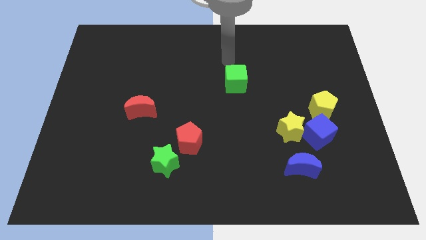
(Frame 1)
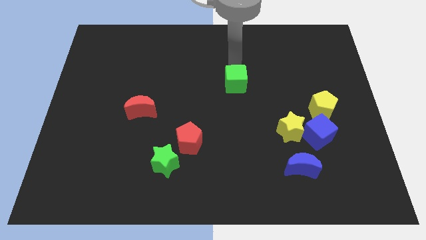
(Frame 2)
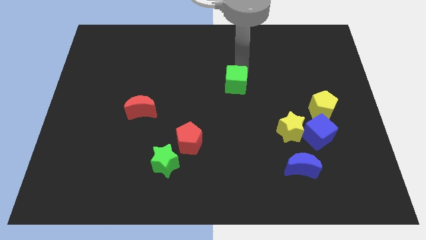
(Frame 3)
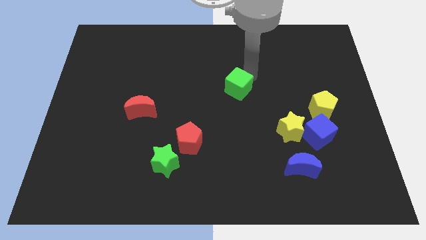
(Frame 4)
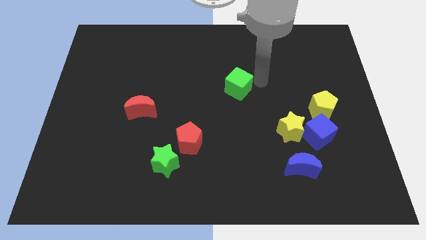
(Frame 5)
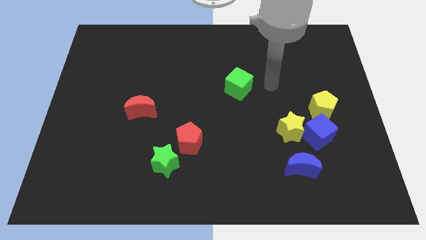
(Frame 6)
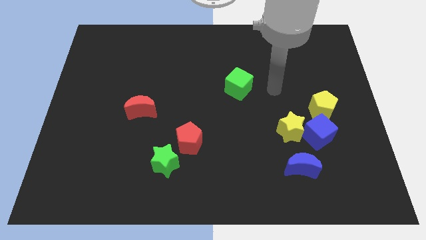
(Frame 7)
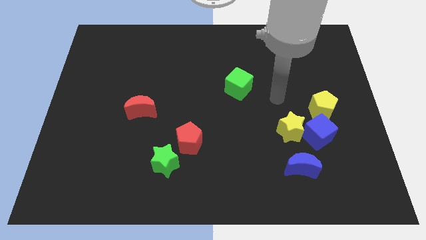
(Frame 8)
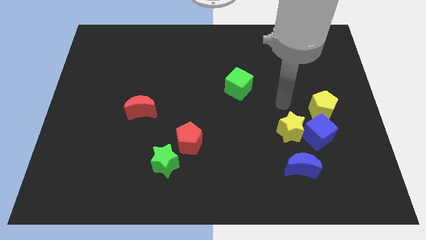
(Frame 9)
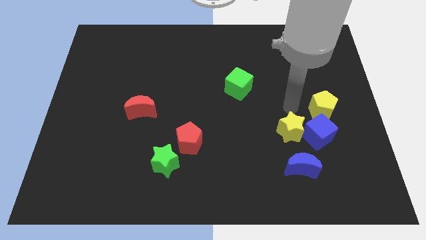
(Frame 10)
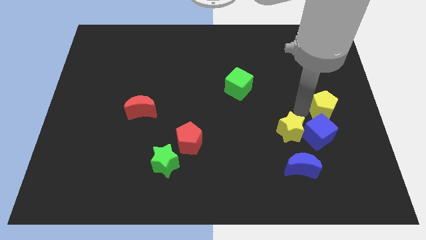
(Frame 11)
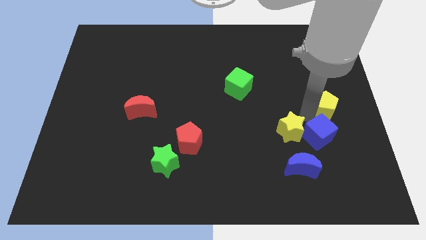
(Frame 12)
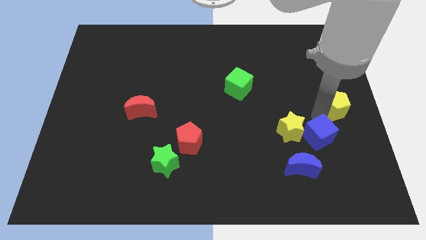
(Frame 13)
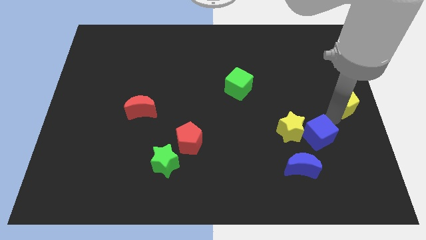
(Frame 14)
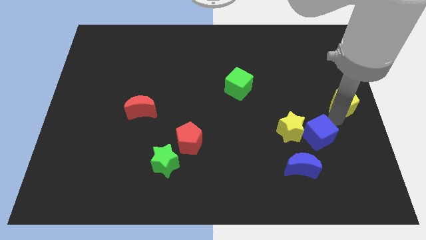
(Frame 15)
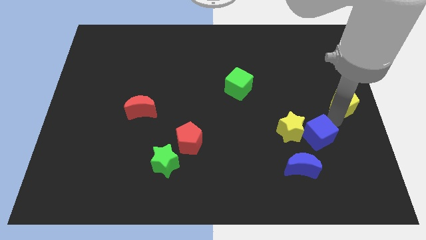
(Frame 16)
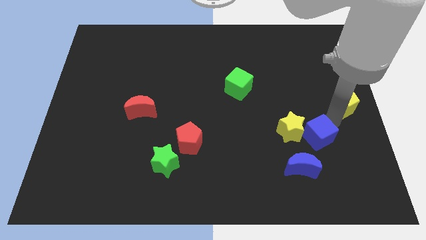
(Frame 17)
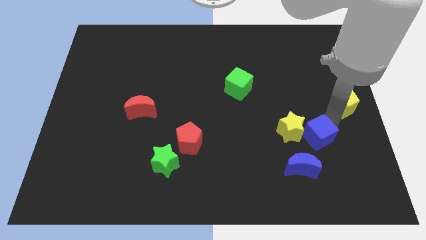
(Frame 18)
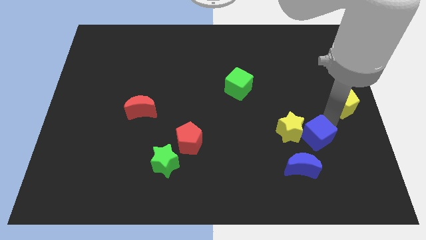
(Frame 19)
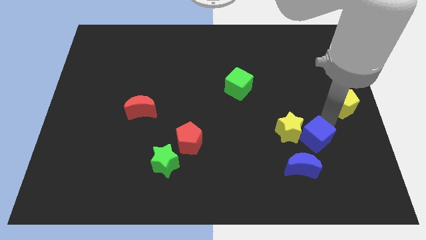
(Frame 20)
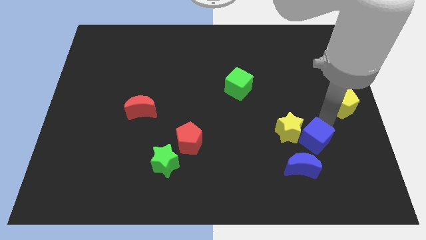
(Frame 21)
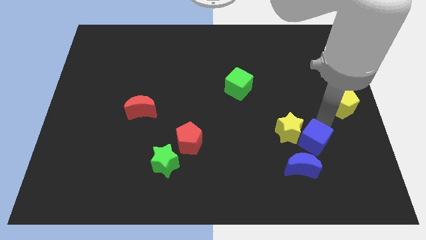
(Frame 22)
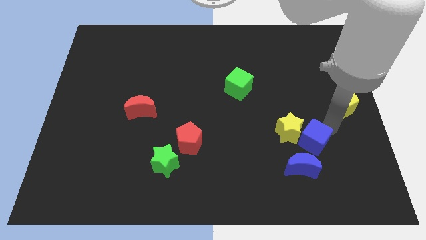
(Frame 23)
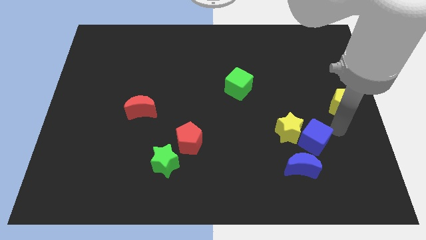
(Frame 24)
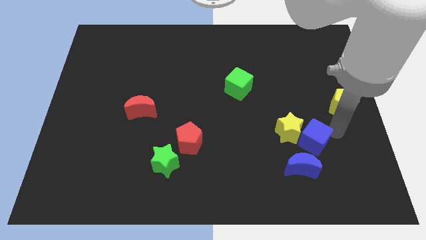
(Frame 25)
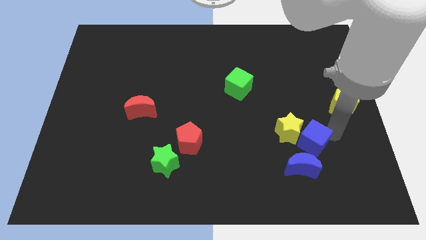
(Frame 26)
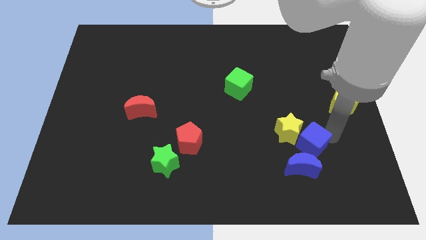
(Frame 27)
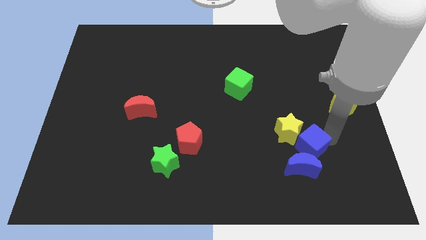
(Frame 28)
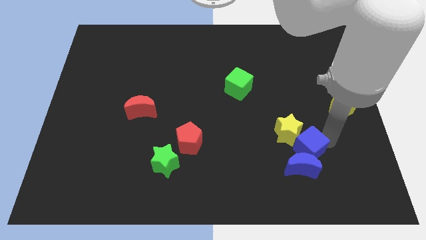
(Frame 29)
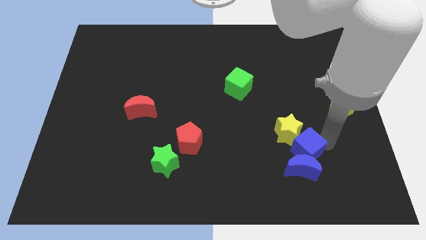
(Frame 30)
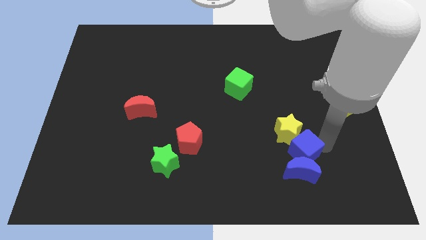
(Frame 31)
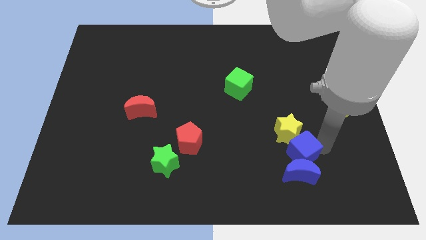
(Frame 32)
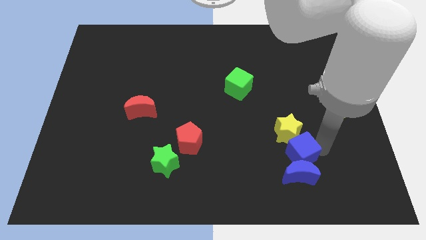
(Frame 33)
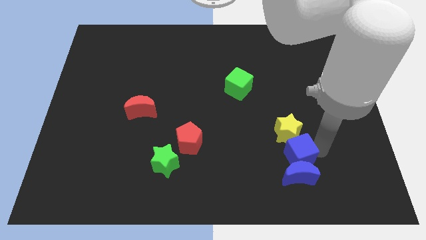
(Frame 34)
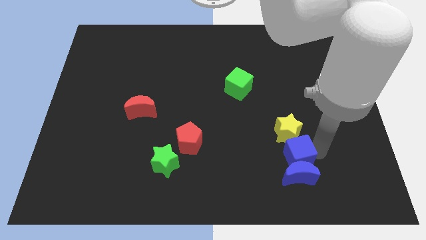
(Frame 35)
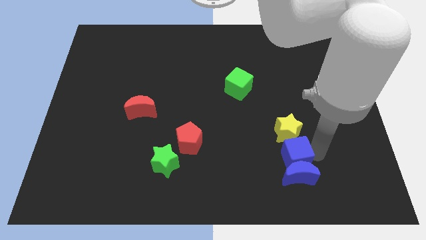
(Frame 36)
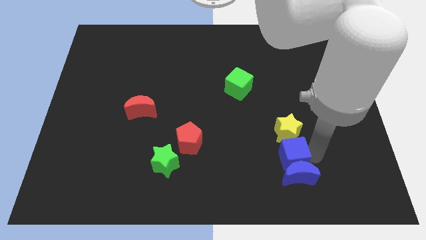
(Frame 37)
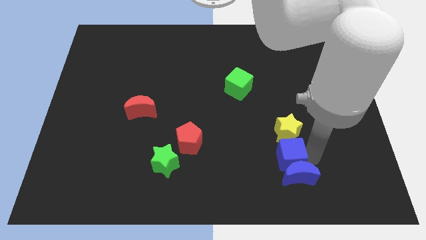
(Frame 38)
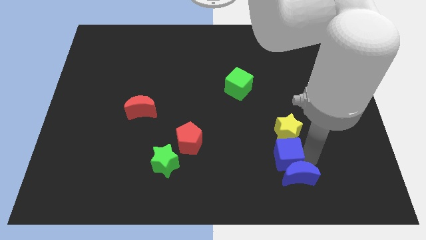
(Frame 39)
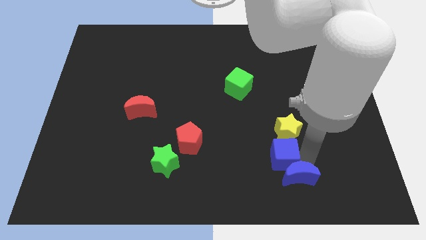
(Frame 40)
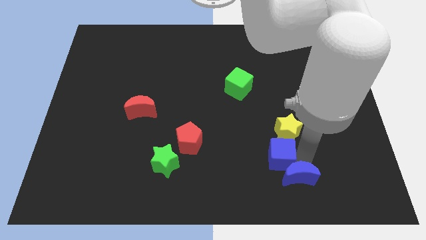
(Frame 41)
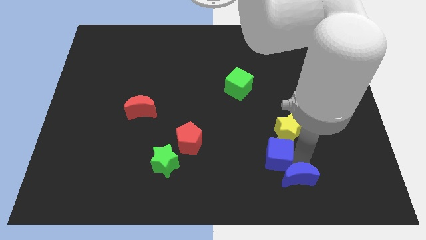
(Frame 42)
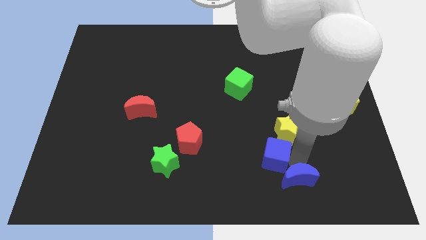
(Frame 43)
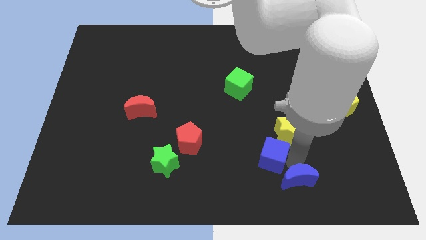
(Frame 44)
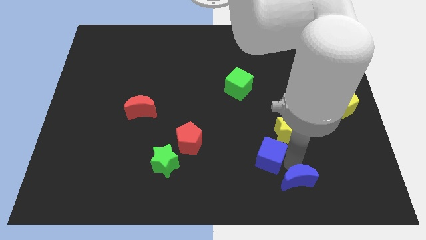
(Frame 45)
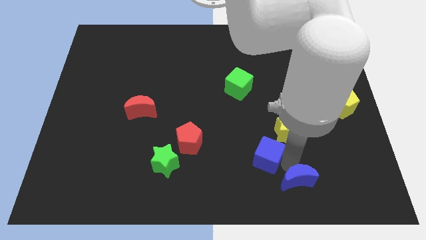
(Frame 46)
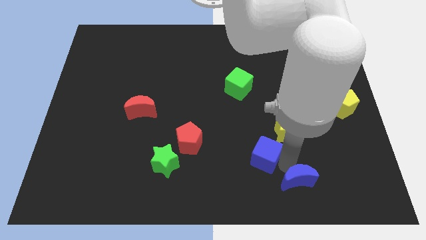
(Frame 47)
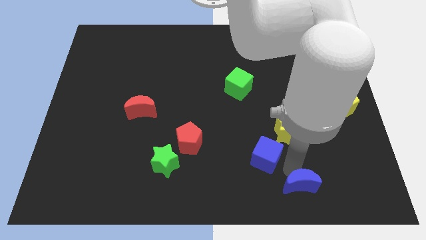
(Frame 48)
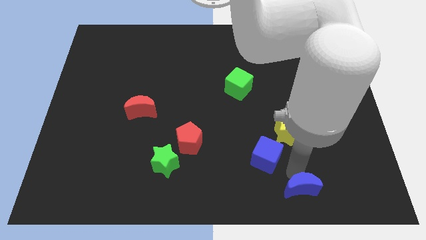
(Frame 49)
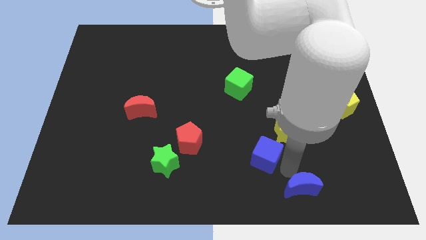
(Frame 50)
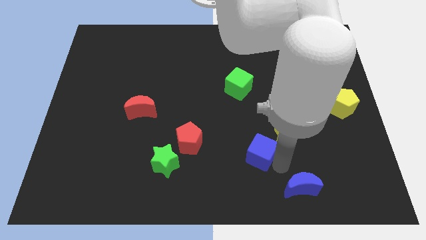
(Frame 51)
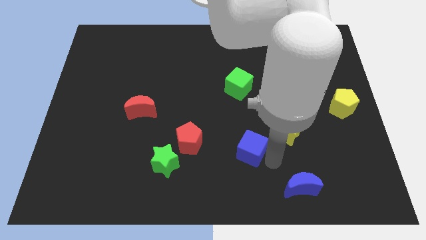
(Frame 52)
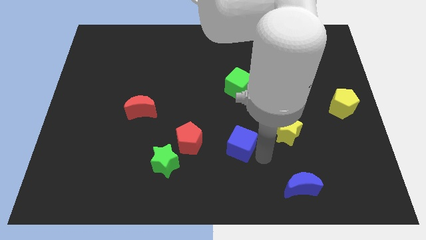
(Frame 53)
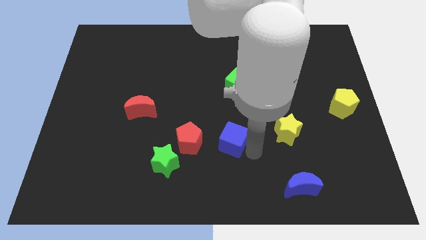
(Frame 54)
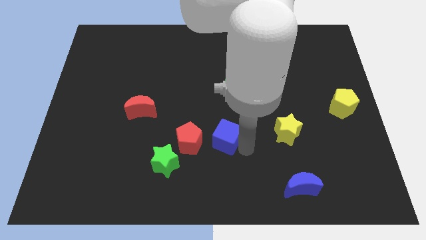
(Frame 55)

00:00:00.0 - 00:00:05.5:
slide the blue cube left

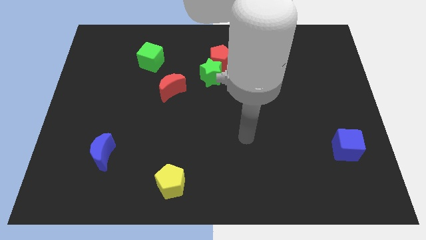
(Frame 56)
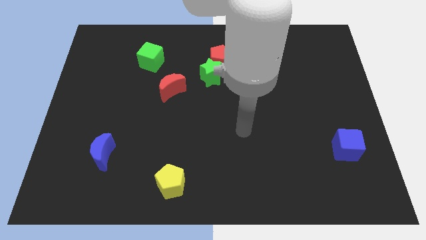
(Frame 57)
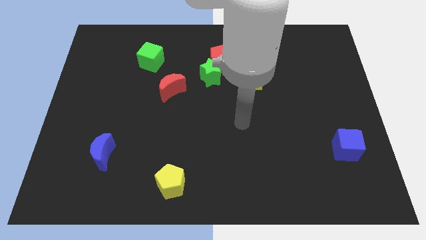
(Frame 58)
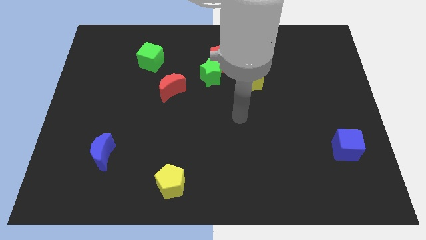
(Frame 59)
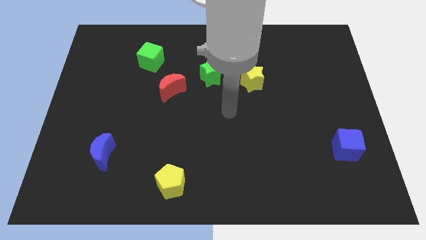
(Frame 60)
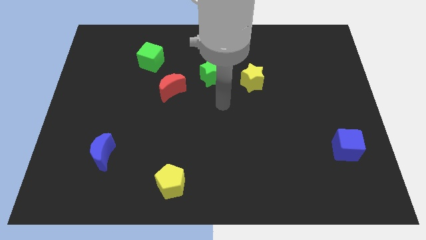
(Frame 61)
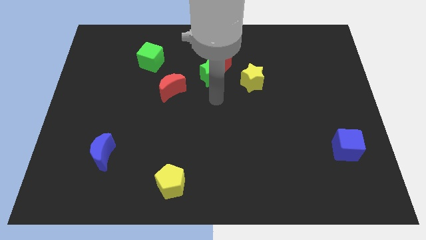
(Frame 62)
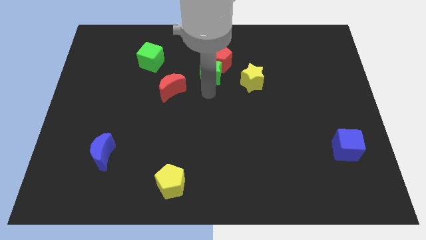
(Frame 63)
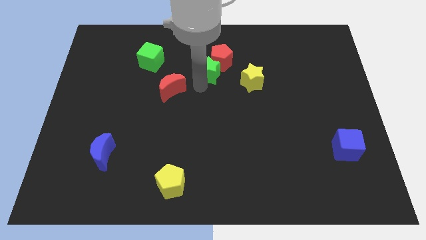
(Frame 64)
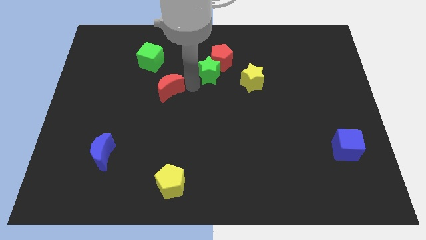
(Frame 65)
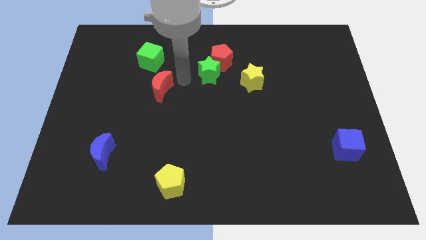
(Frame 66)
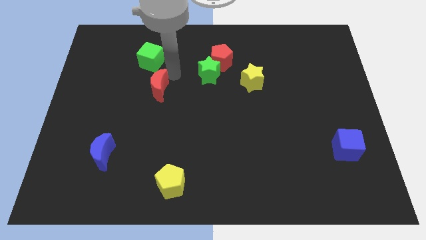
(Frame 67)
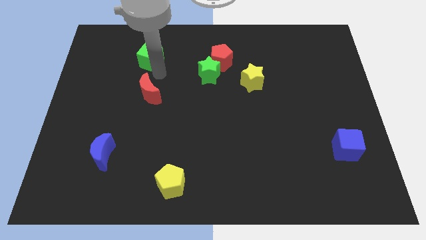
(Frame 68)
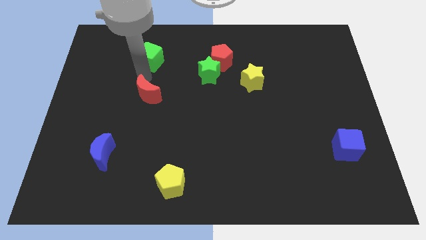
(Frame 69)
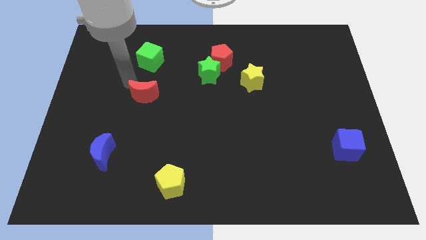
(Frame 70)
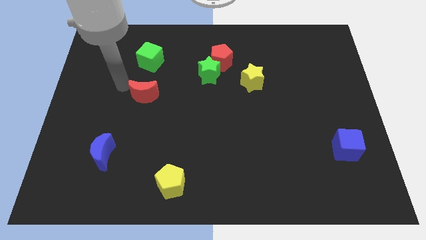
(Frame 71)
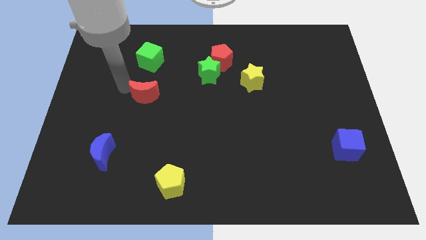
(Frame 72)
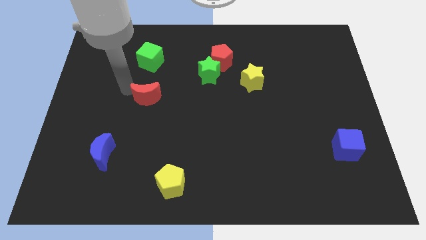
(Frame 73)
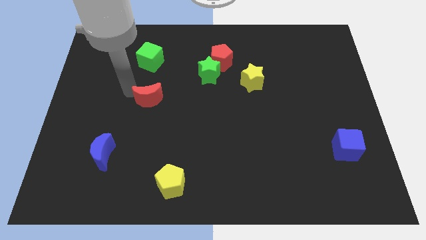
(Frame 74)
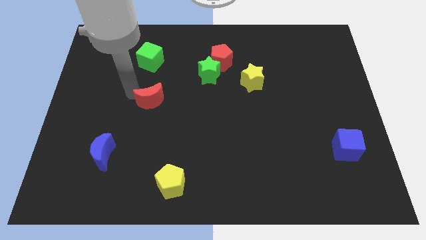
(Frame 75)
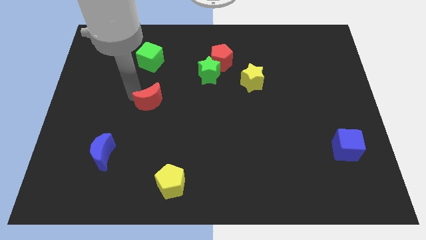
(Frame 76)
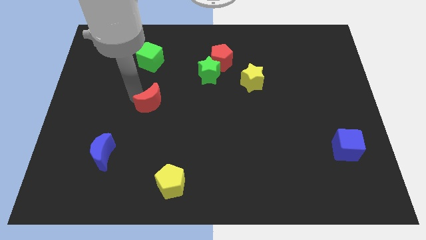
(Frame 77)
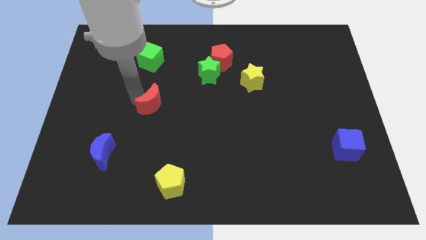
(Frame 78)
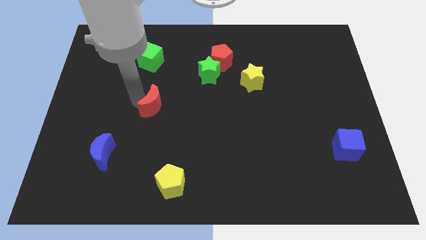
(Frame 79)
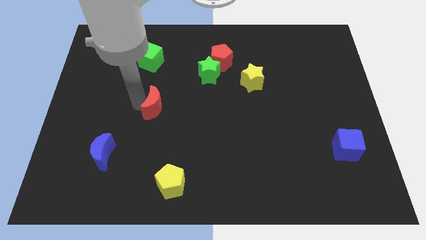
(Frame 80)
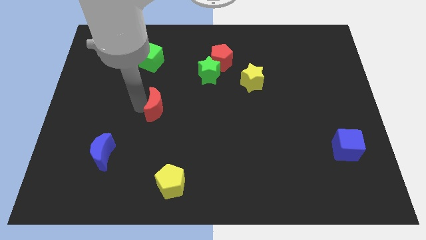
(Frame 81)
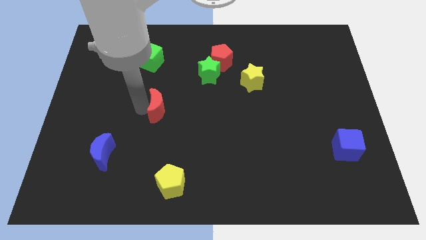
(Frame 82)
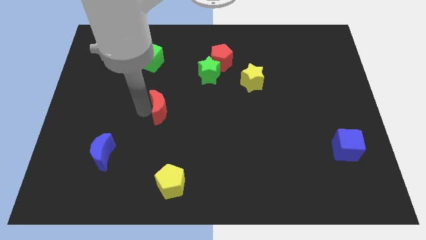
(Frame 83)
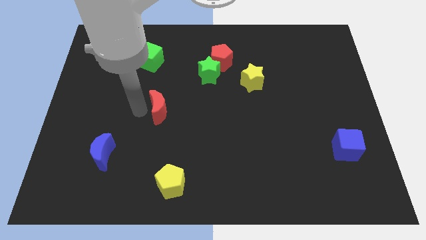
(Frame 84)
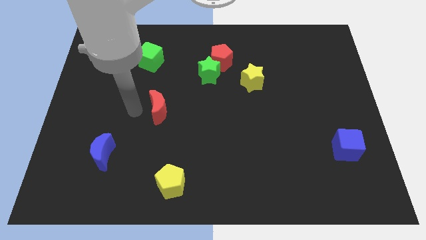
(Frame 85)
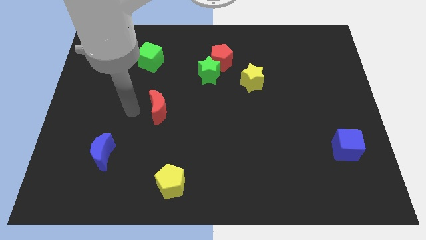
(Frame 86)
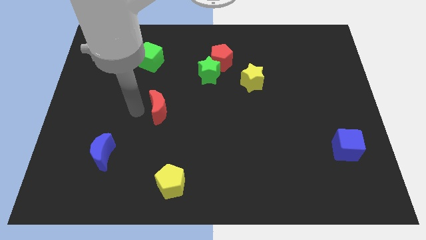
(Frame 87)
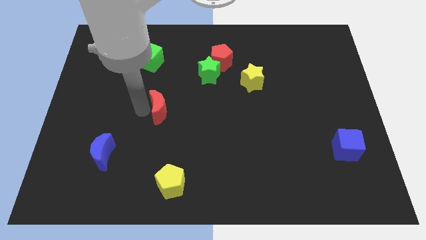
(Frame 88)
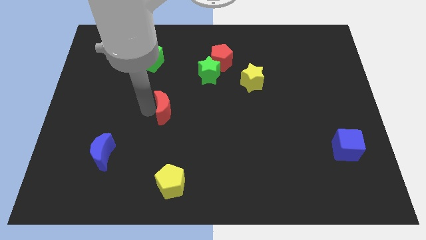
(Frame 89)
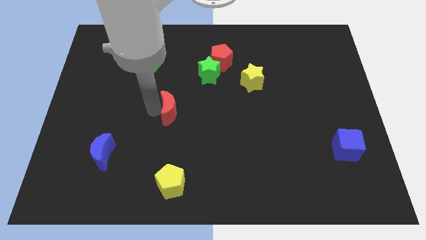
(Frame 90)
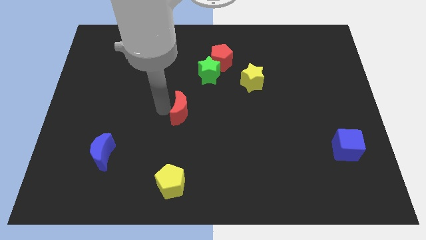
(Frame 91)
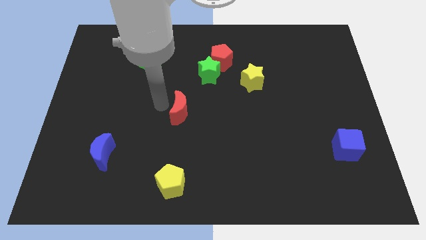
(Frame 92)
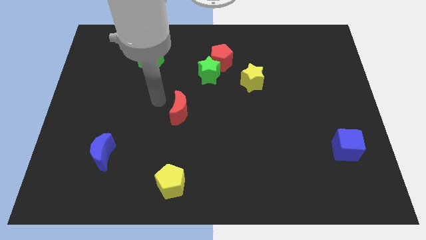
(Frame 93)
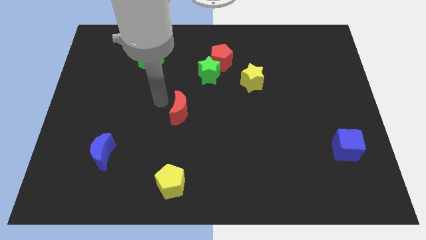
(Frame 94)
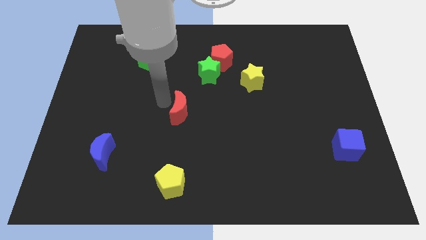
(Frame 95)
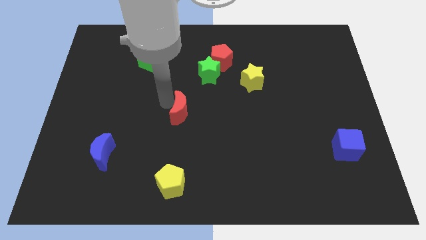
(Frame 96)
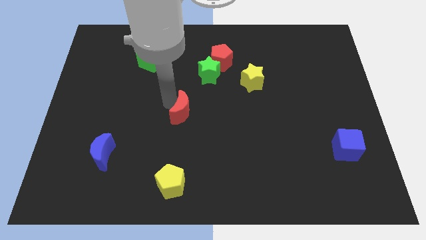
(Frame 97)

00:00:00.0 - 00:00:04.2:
slightly push the red moon diagonally down and to the right
